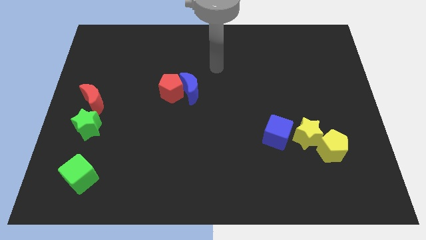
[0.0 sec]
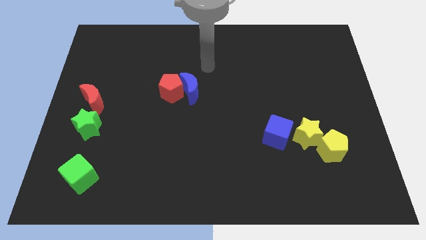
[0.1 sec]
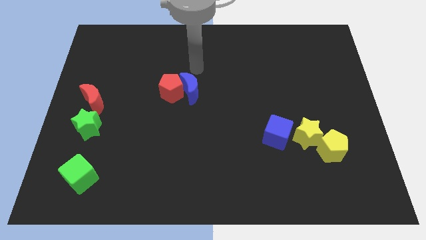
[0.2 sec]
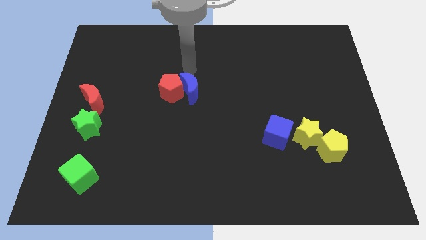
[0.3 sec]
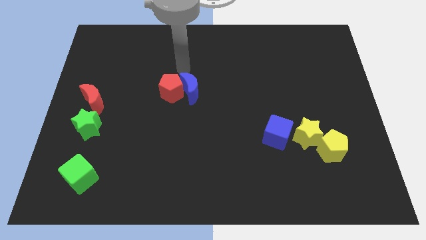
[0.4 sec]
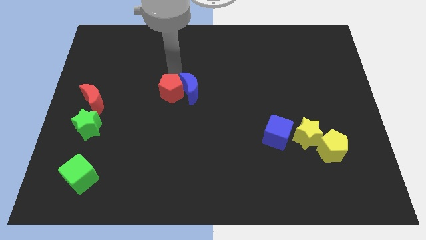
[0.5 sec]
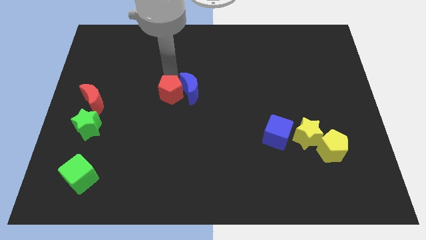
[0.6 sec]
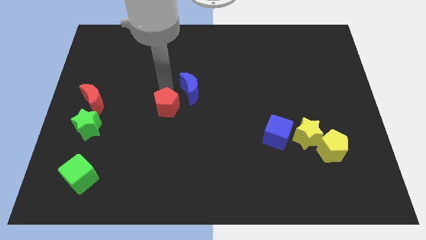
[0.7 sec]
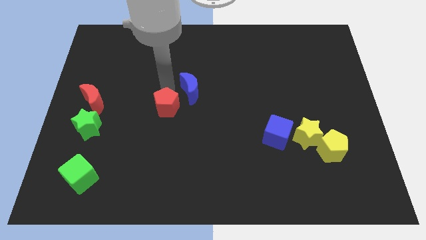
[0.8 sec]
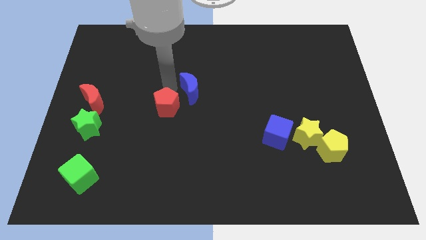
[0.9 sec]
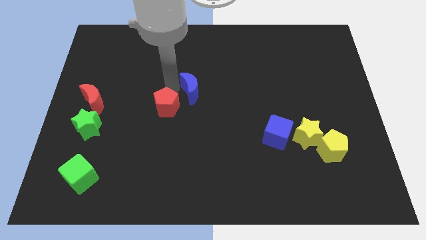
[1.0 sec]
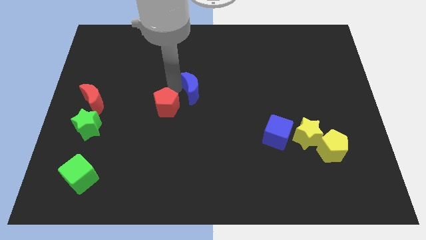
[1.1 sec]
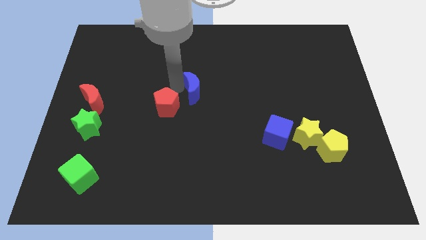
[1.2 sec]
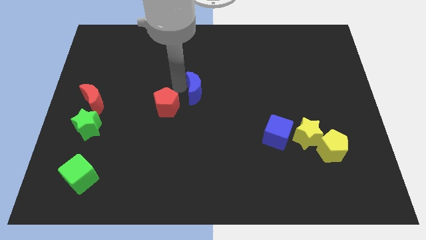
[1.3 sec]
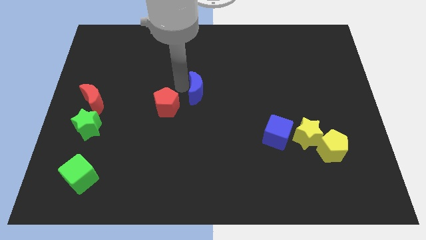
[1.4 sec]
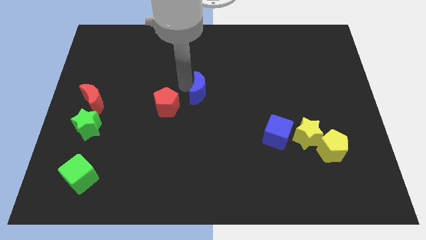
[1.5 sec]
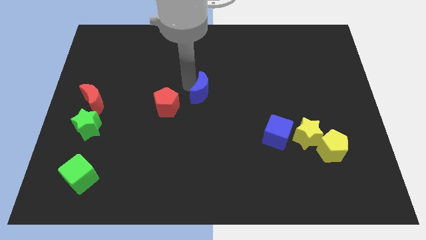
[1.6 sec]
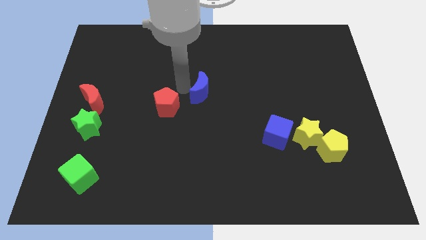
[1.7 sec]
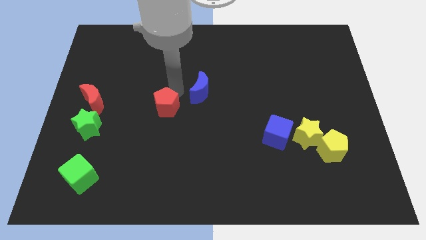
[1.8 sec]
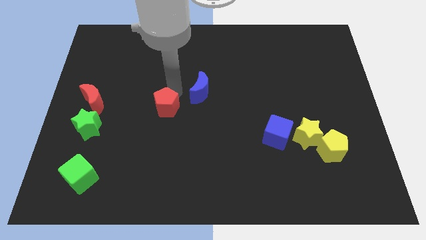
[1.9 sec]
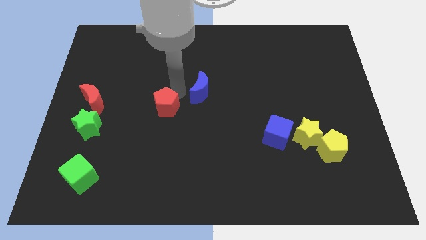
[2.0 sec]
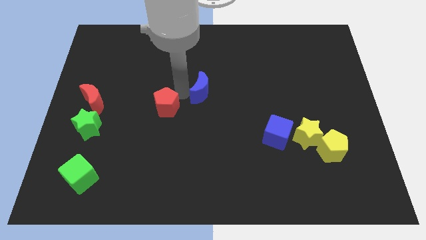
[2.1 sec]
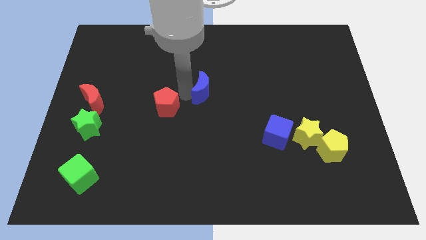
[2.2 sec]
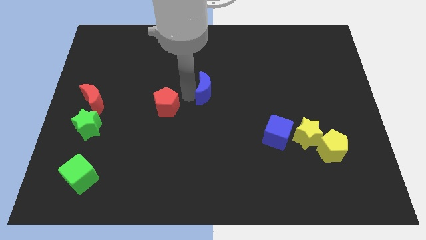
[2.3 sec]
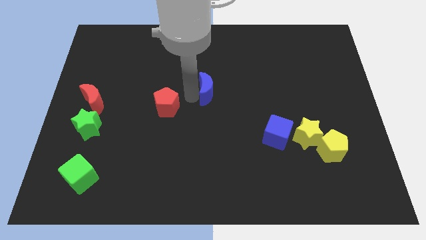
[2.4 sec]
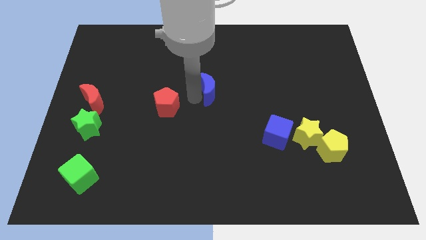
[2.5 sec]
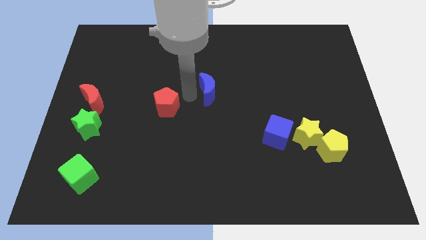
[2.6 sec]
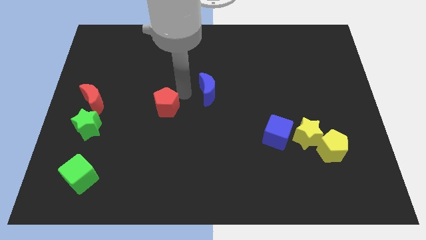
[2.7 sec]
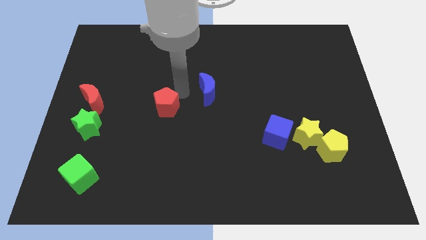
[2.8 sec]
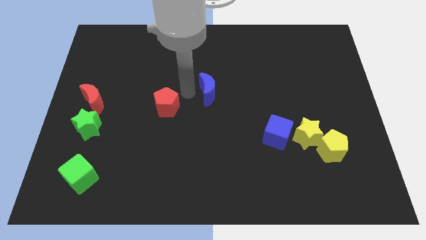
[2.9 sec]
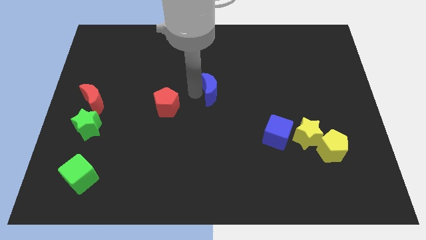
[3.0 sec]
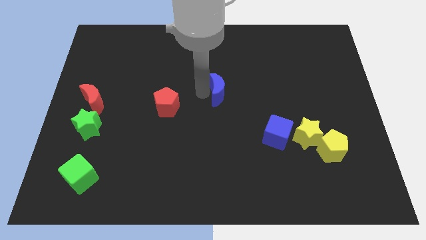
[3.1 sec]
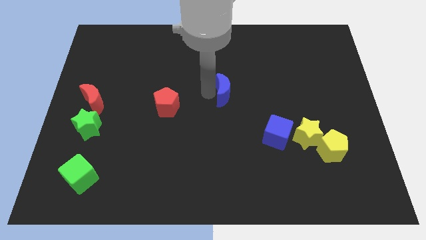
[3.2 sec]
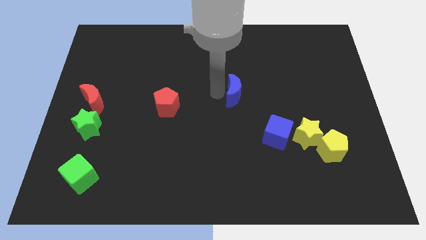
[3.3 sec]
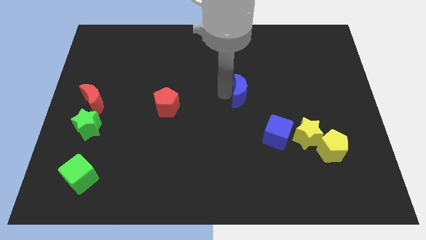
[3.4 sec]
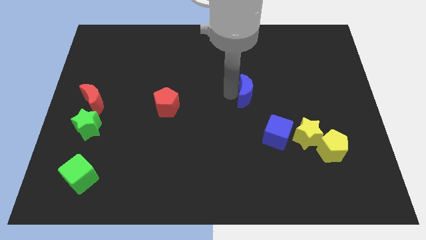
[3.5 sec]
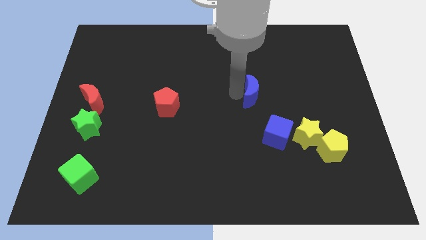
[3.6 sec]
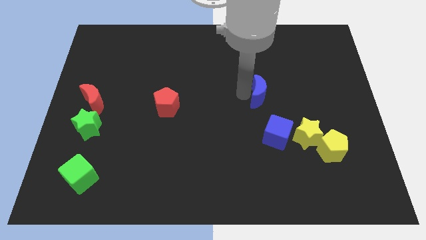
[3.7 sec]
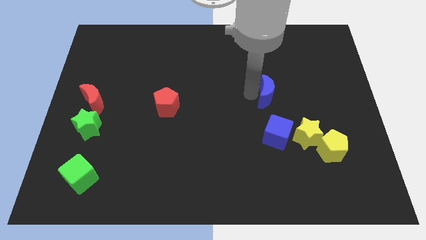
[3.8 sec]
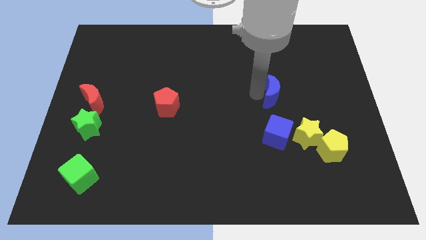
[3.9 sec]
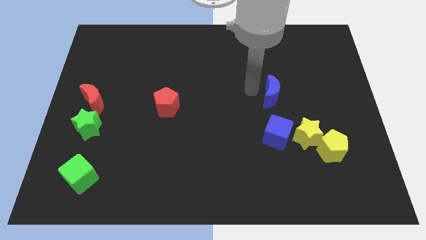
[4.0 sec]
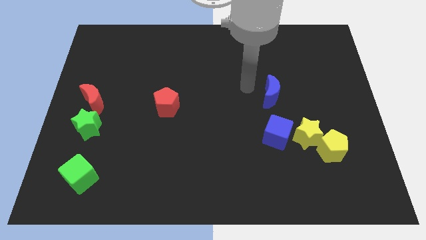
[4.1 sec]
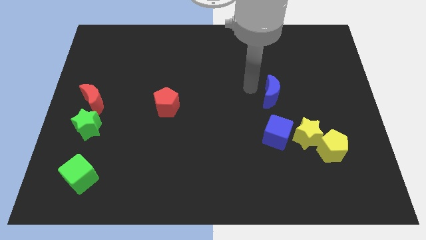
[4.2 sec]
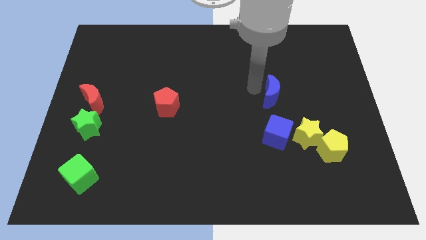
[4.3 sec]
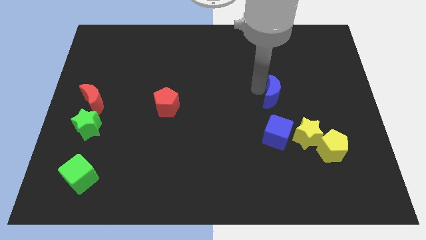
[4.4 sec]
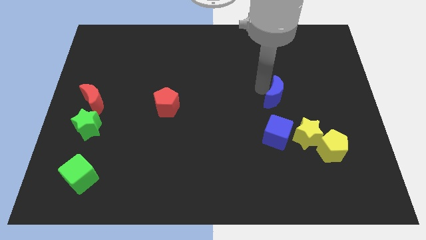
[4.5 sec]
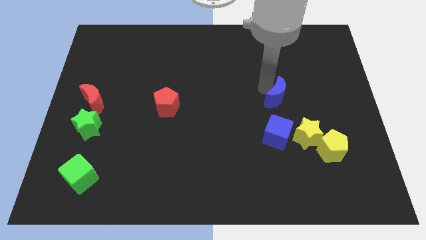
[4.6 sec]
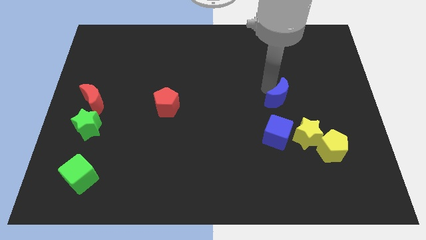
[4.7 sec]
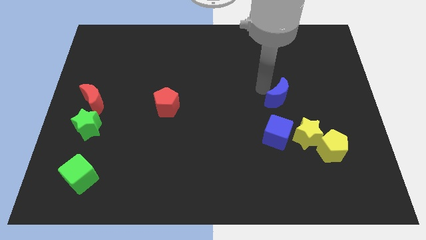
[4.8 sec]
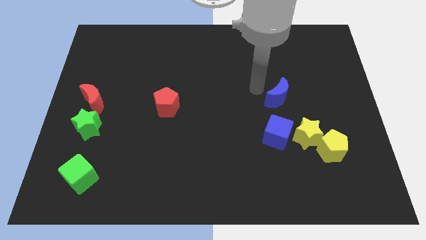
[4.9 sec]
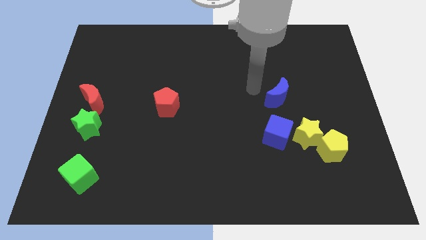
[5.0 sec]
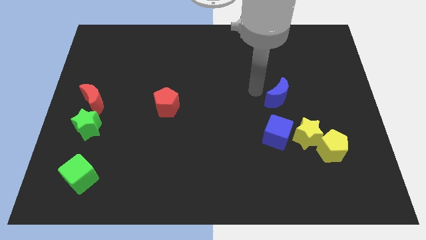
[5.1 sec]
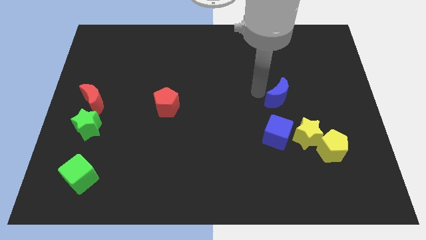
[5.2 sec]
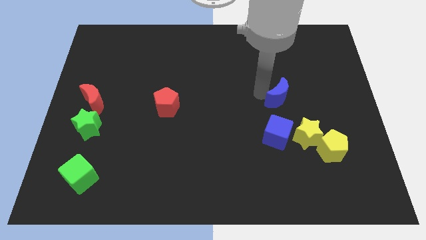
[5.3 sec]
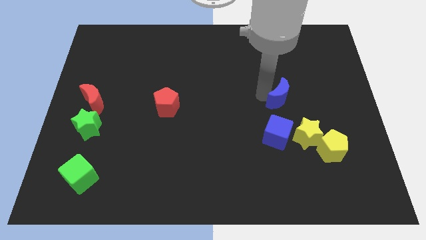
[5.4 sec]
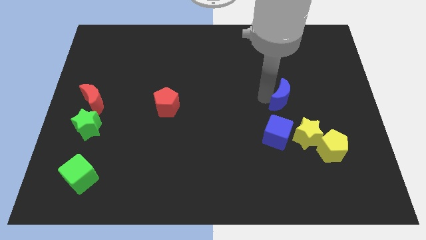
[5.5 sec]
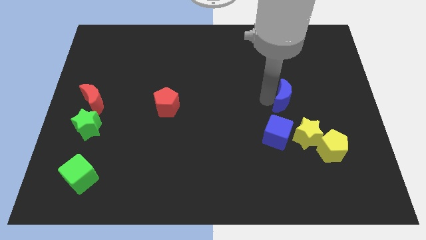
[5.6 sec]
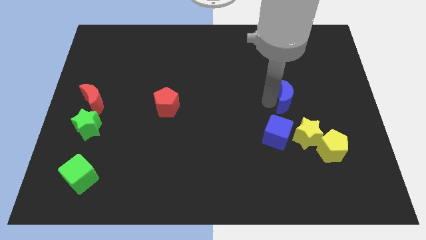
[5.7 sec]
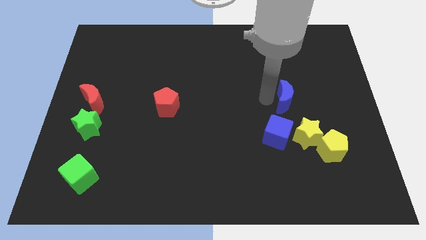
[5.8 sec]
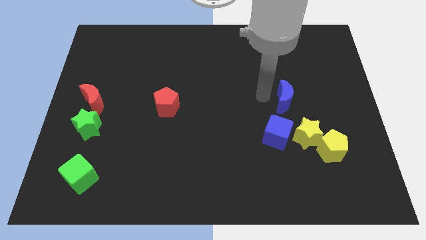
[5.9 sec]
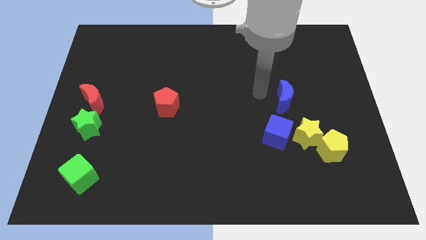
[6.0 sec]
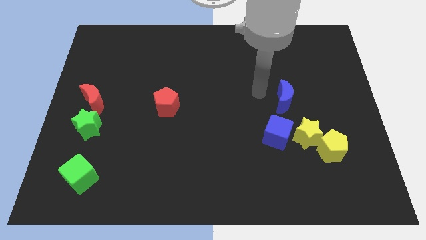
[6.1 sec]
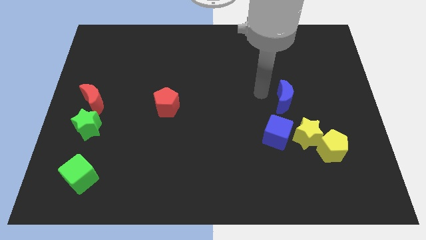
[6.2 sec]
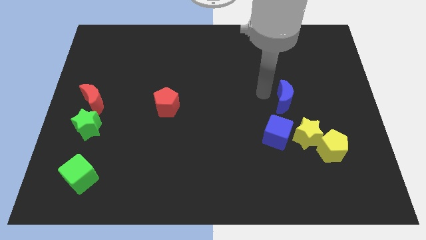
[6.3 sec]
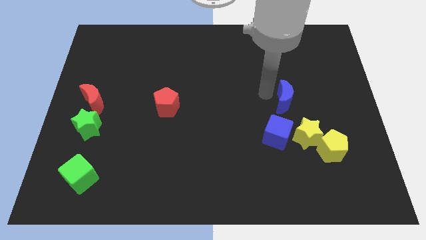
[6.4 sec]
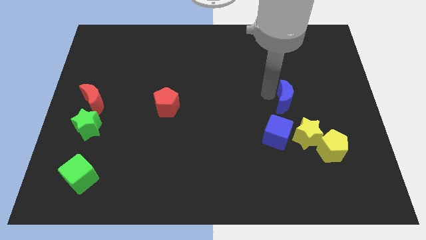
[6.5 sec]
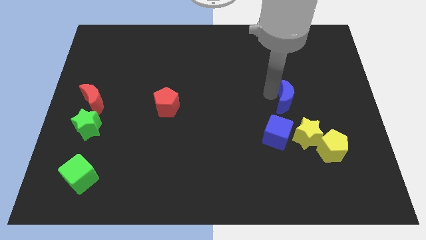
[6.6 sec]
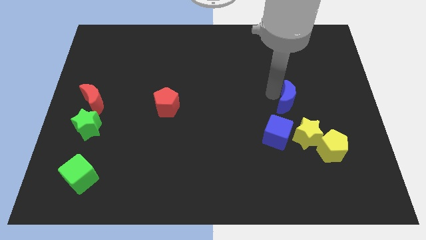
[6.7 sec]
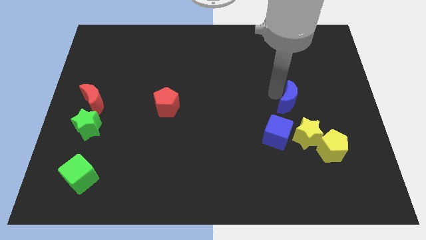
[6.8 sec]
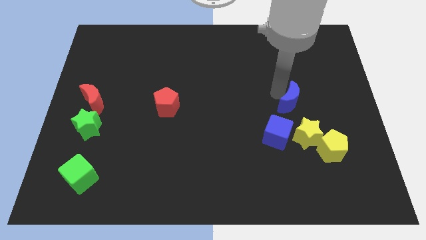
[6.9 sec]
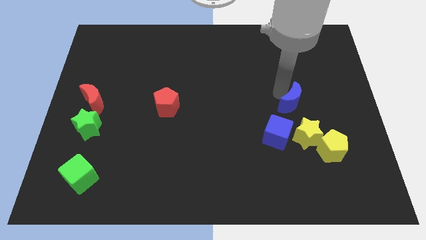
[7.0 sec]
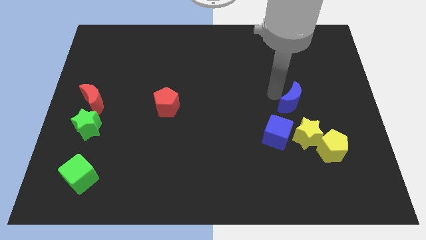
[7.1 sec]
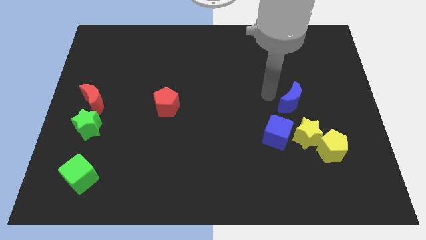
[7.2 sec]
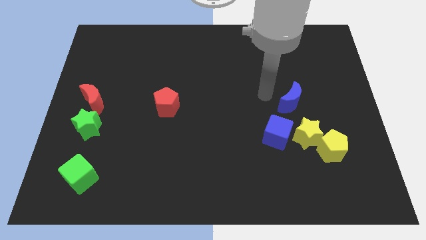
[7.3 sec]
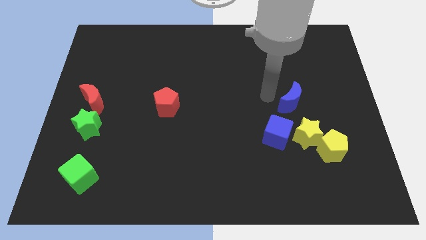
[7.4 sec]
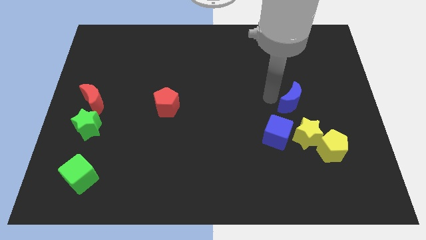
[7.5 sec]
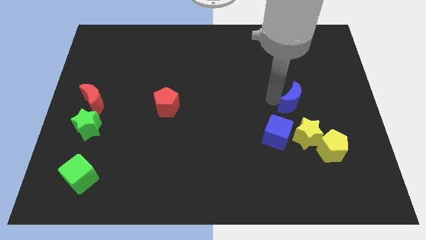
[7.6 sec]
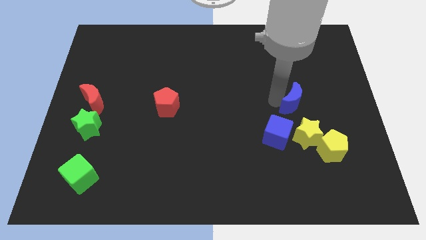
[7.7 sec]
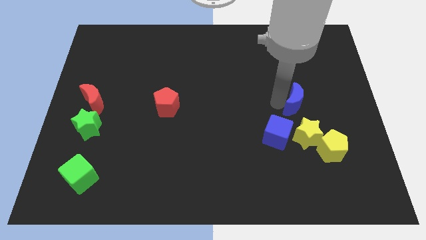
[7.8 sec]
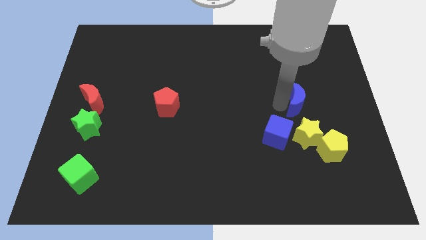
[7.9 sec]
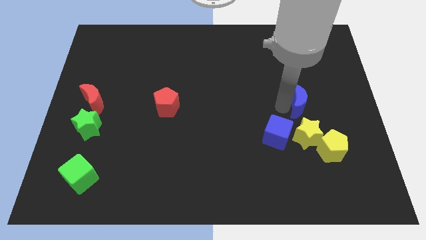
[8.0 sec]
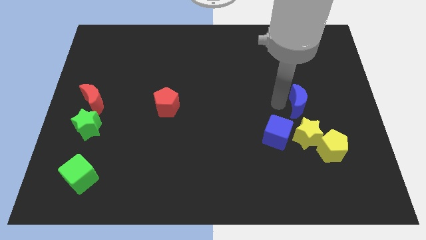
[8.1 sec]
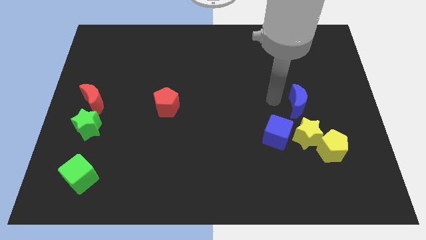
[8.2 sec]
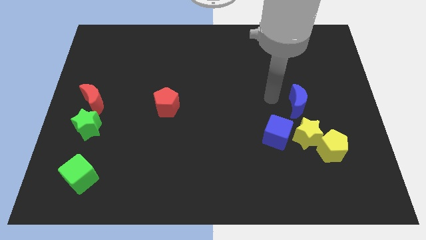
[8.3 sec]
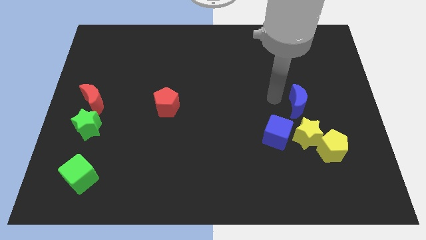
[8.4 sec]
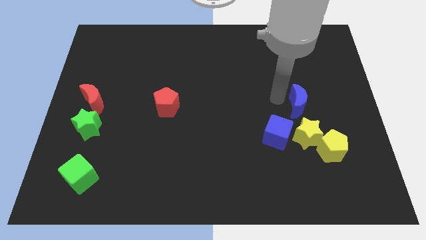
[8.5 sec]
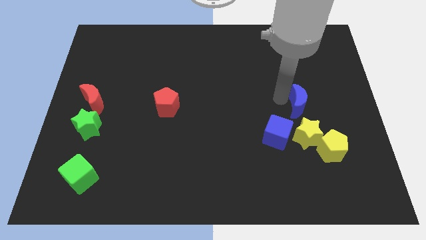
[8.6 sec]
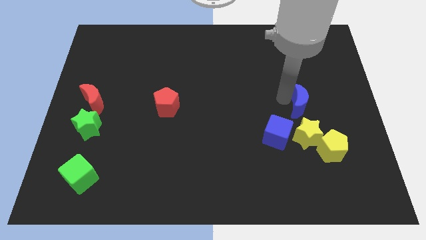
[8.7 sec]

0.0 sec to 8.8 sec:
put the blue moon to the top of the yellow pentagon
